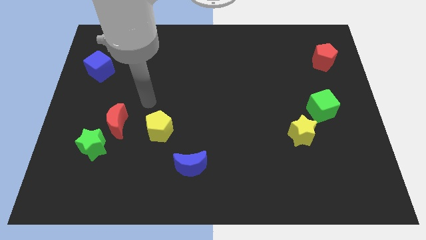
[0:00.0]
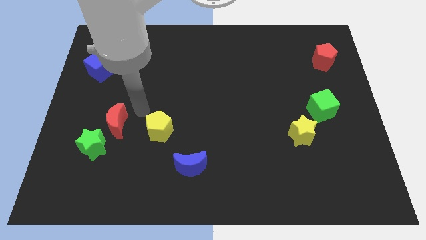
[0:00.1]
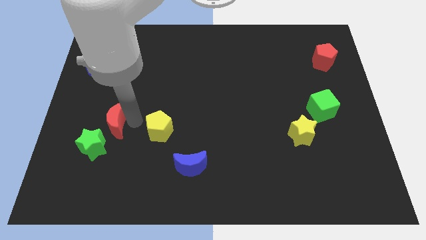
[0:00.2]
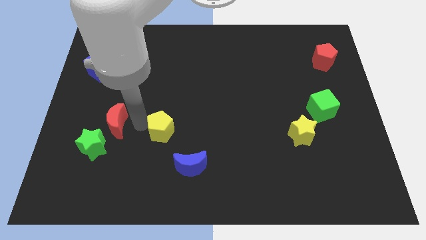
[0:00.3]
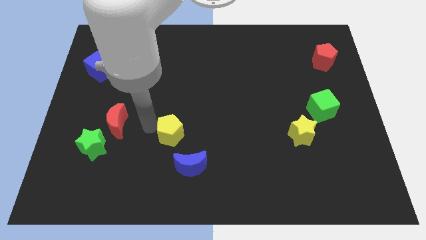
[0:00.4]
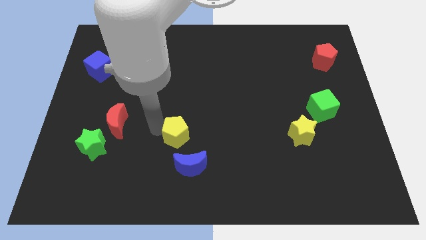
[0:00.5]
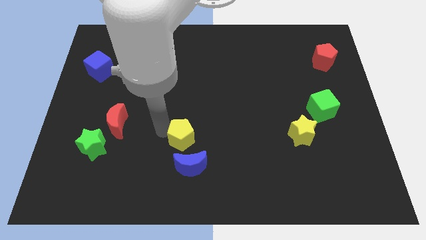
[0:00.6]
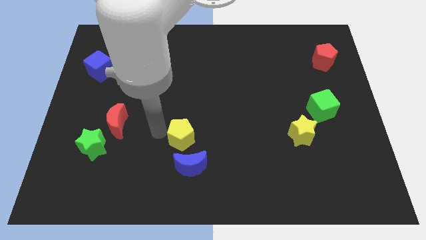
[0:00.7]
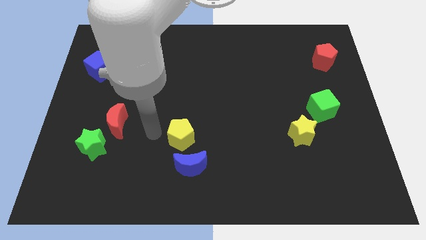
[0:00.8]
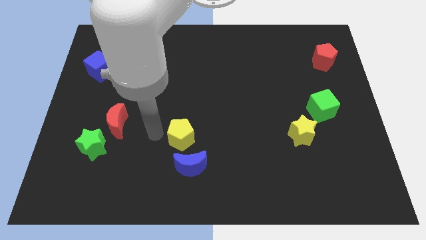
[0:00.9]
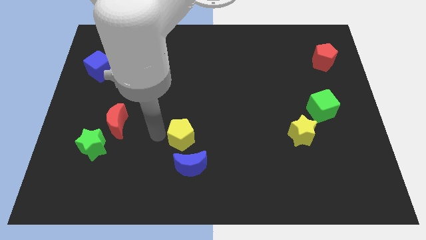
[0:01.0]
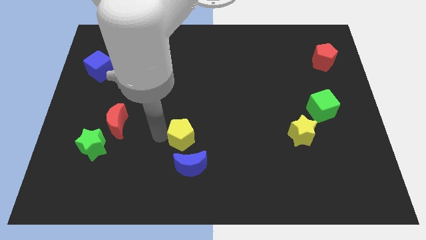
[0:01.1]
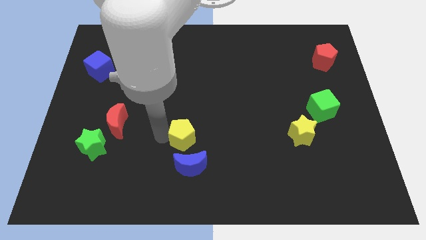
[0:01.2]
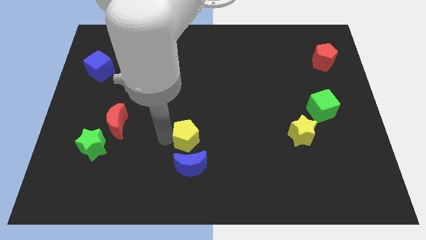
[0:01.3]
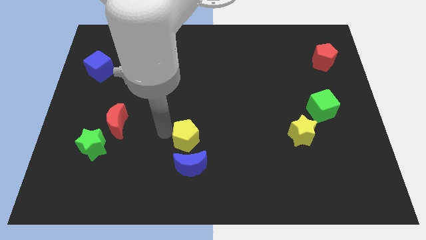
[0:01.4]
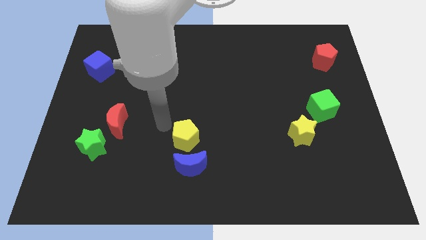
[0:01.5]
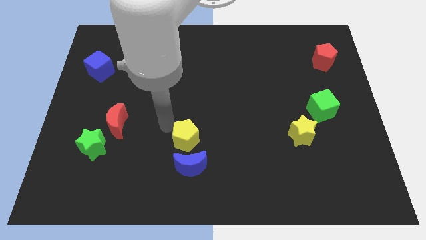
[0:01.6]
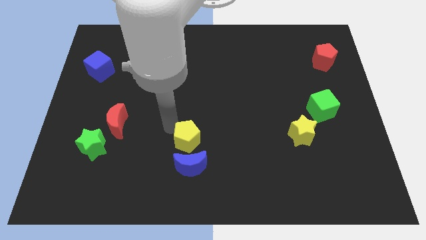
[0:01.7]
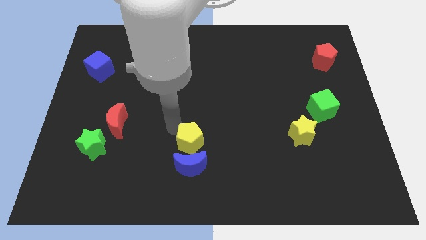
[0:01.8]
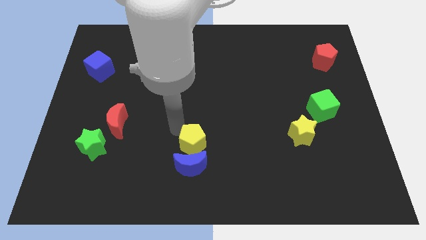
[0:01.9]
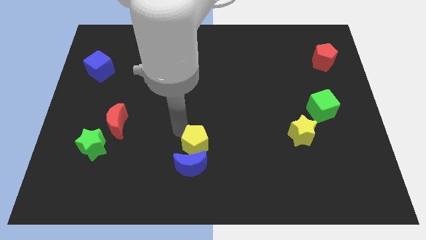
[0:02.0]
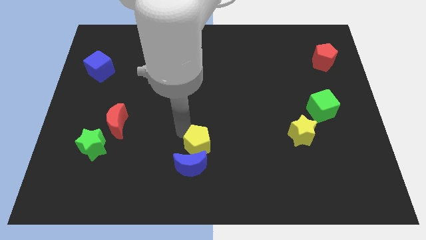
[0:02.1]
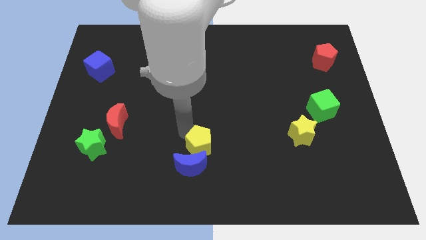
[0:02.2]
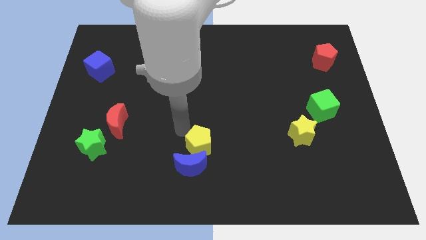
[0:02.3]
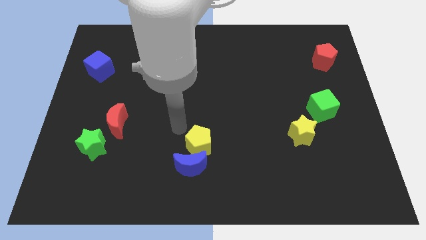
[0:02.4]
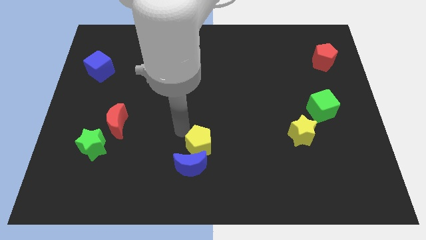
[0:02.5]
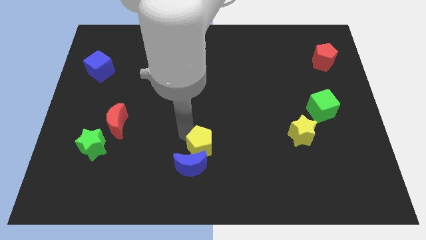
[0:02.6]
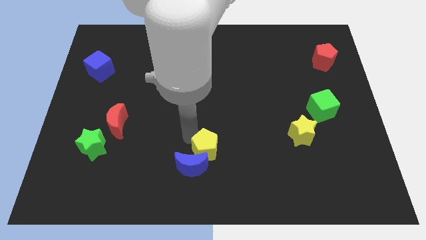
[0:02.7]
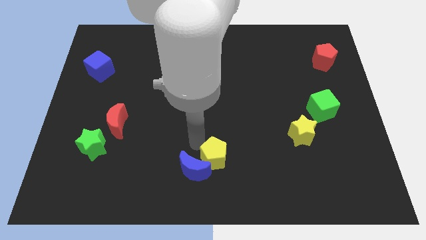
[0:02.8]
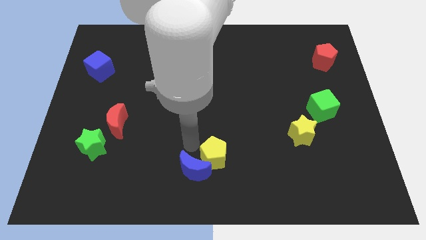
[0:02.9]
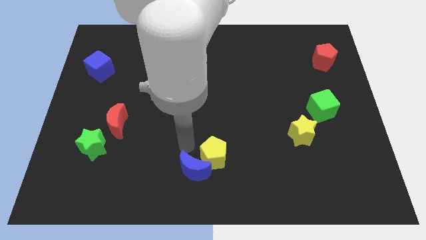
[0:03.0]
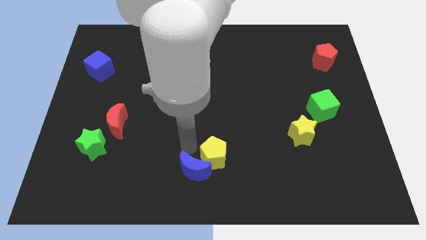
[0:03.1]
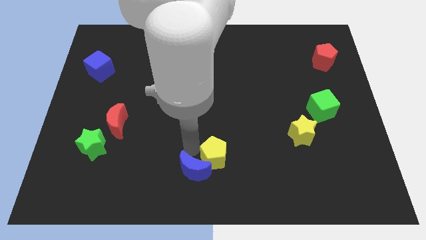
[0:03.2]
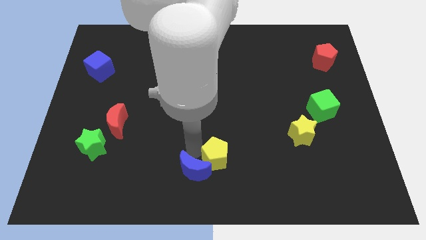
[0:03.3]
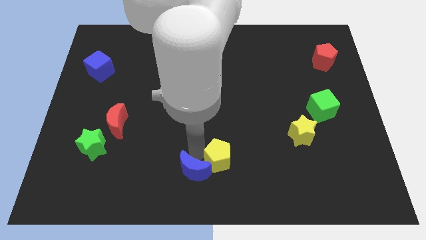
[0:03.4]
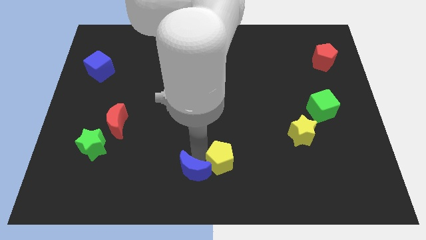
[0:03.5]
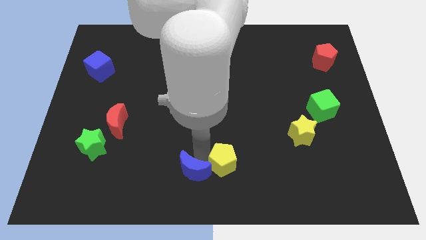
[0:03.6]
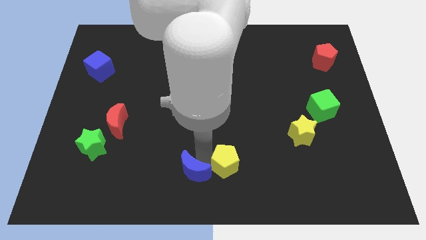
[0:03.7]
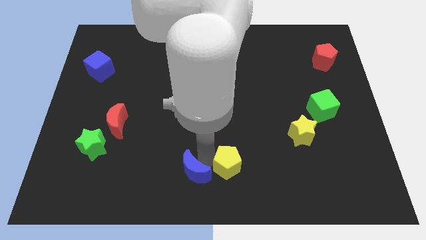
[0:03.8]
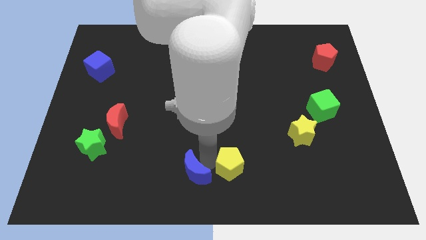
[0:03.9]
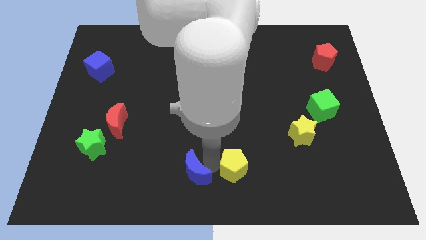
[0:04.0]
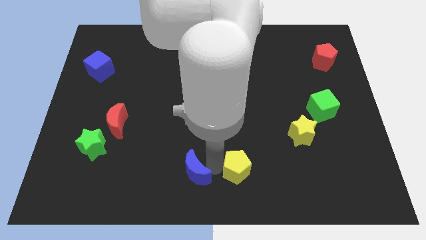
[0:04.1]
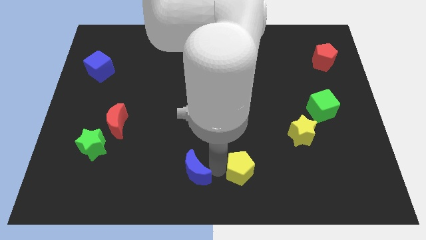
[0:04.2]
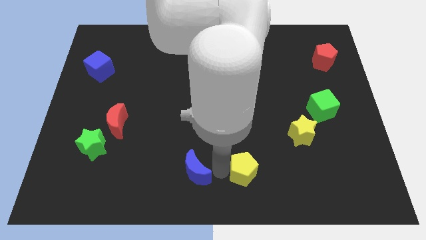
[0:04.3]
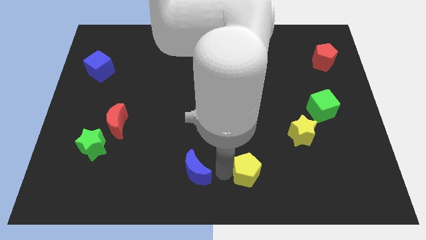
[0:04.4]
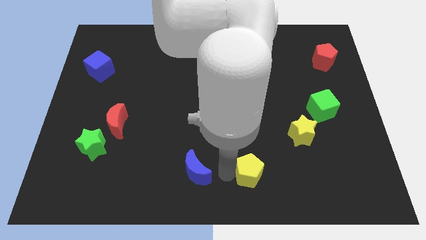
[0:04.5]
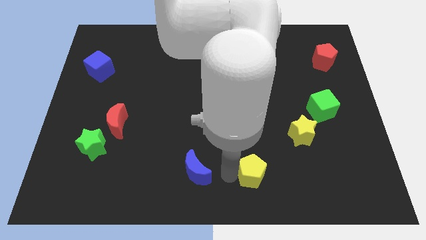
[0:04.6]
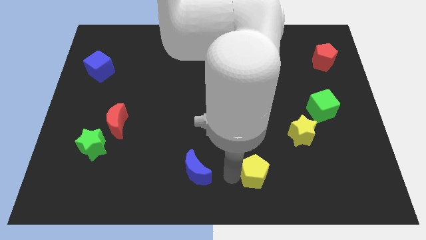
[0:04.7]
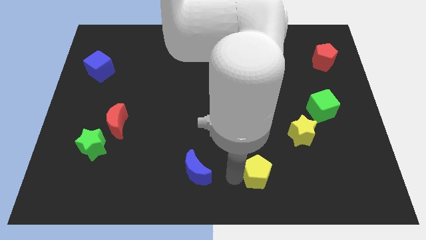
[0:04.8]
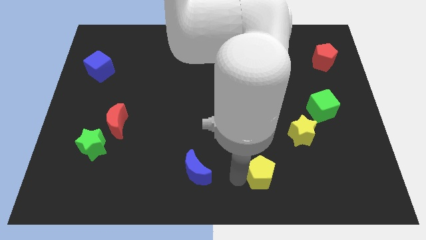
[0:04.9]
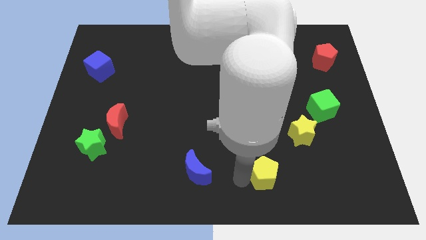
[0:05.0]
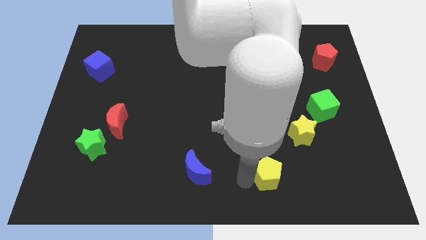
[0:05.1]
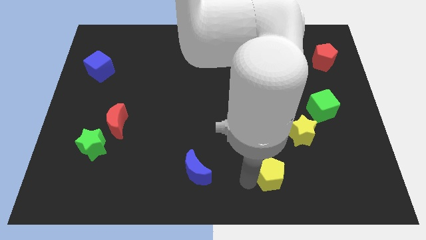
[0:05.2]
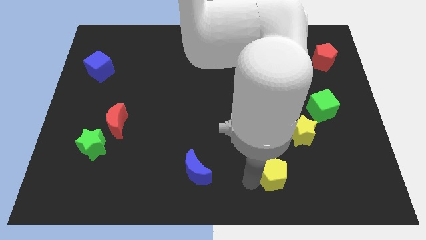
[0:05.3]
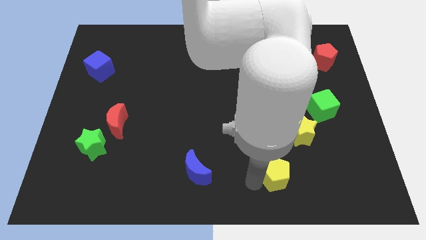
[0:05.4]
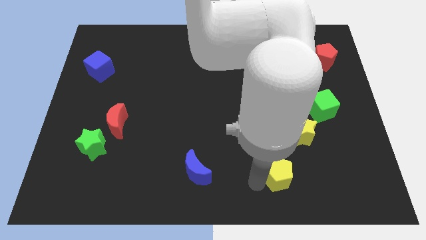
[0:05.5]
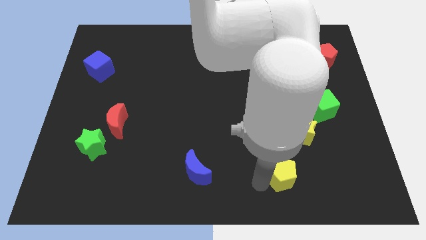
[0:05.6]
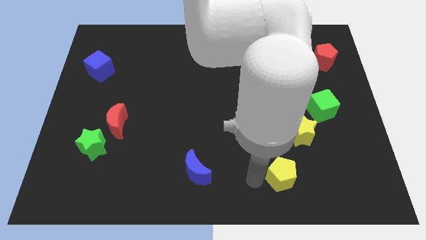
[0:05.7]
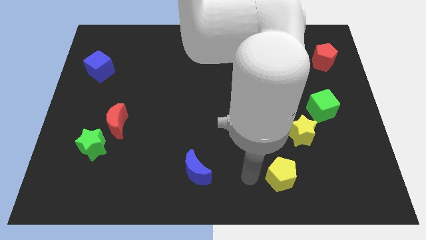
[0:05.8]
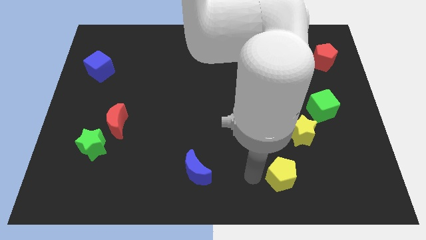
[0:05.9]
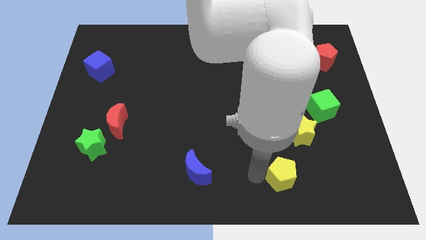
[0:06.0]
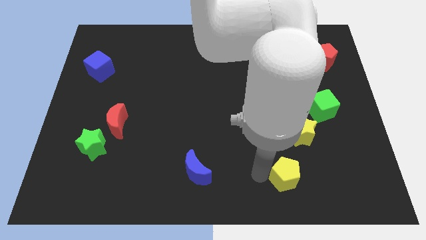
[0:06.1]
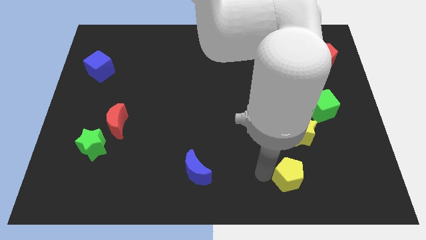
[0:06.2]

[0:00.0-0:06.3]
slide the yellow pentagon to the bottom of the yellow star
